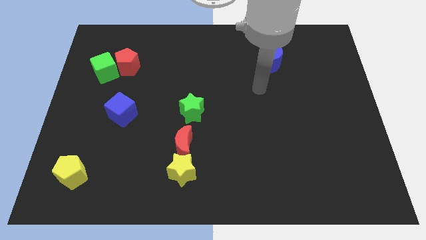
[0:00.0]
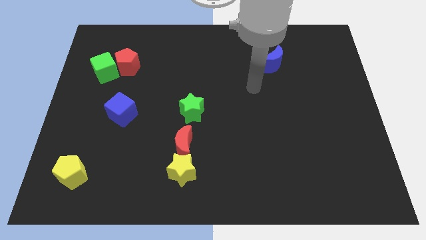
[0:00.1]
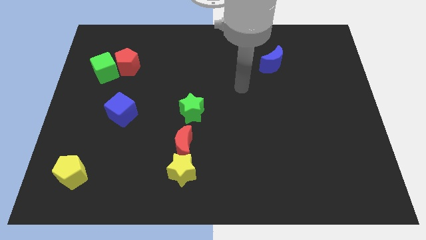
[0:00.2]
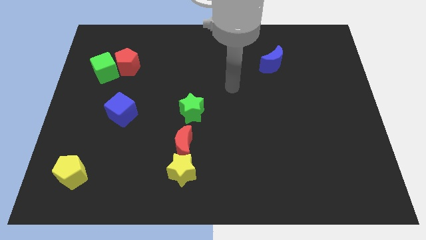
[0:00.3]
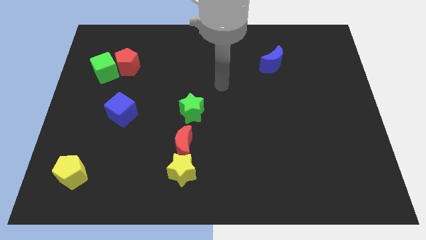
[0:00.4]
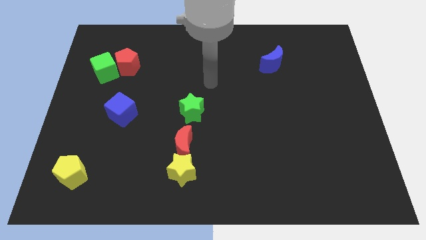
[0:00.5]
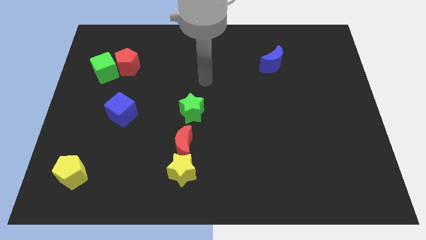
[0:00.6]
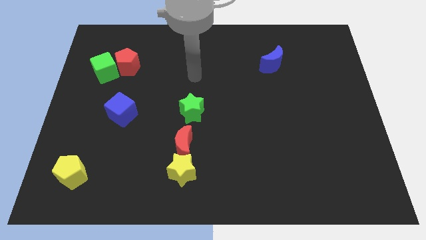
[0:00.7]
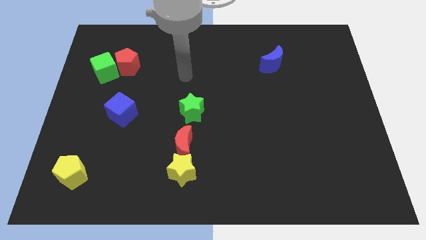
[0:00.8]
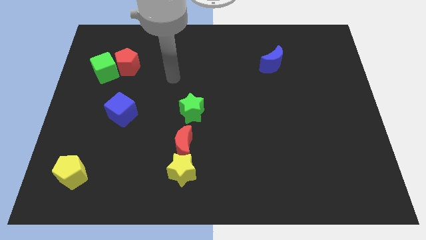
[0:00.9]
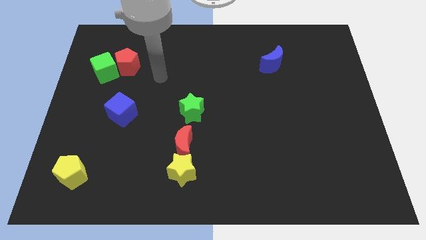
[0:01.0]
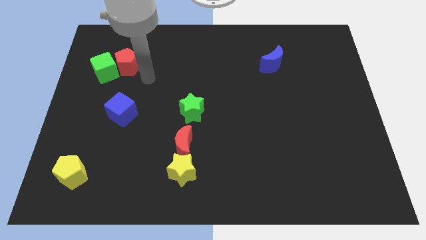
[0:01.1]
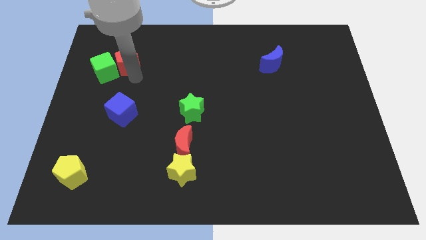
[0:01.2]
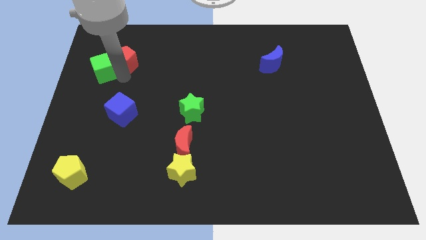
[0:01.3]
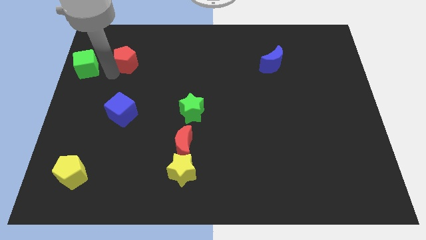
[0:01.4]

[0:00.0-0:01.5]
pull the red pentagon apart from the green cube

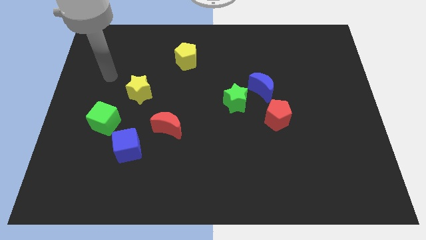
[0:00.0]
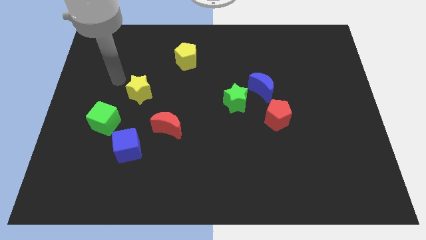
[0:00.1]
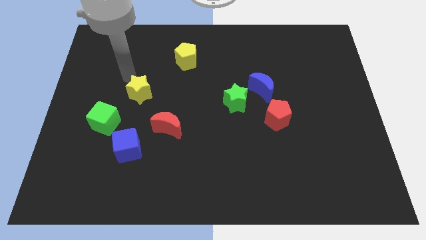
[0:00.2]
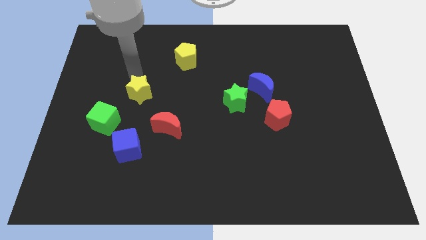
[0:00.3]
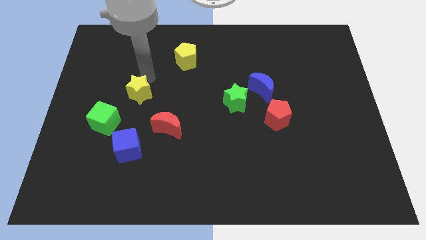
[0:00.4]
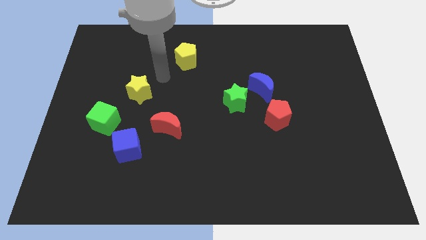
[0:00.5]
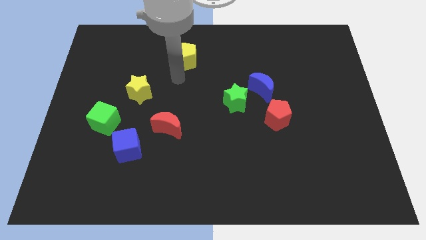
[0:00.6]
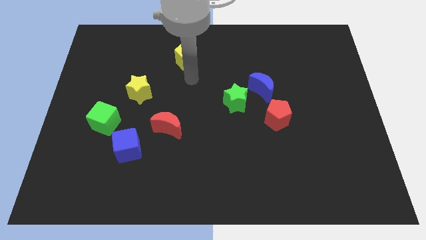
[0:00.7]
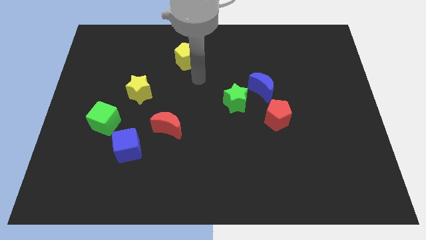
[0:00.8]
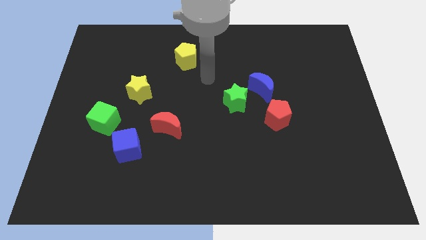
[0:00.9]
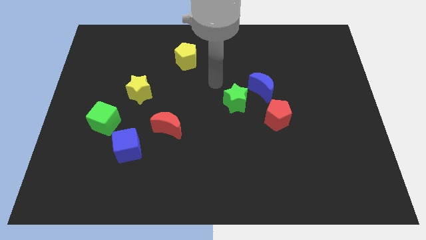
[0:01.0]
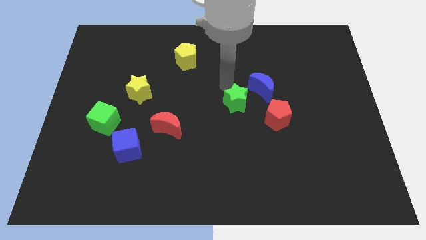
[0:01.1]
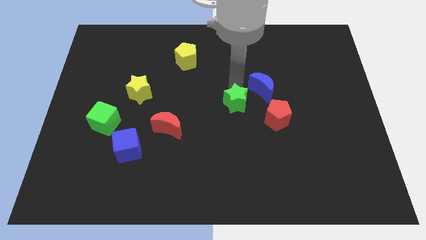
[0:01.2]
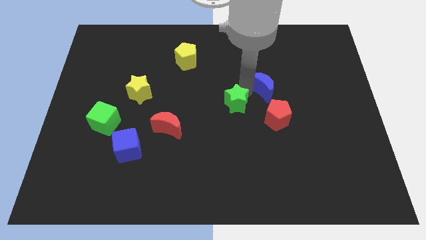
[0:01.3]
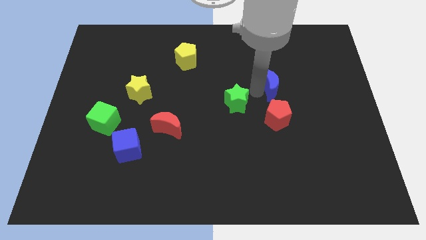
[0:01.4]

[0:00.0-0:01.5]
move the green star away from the blue moon

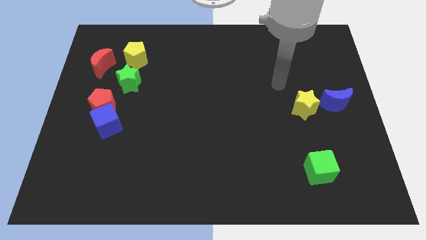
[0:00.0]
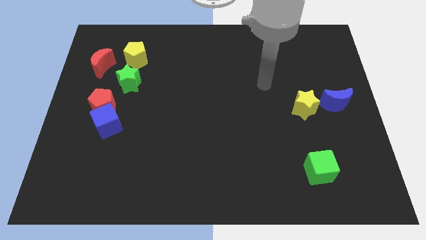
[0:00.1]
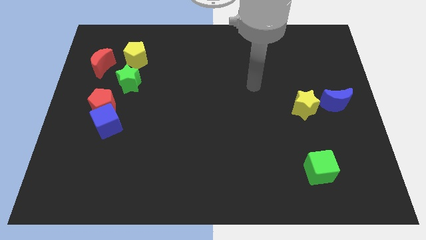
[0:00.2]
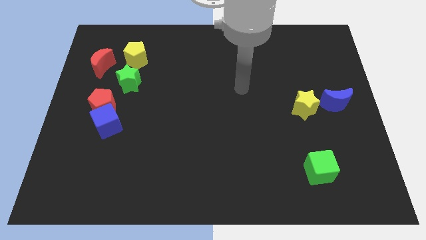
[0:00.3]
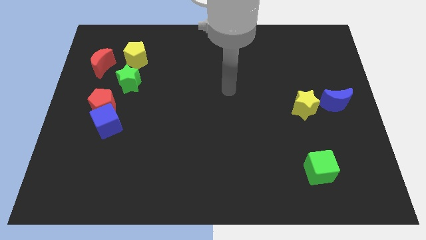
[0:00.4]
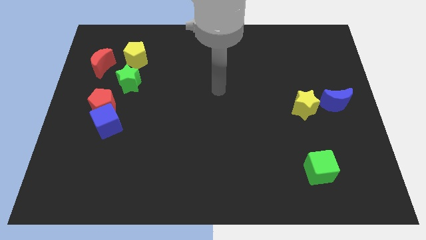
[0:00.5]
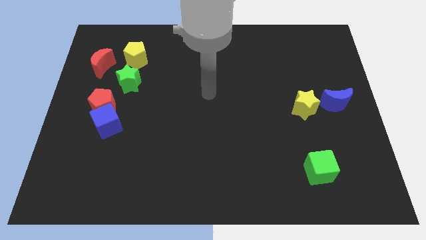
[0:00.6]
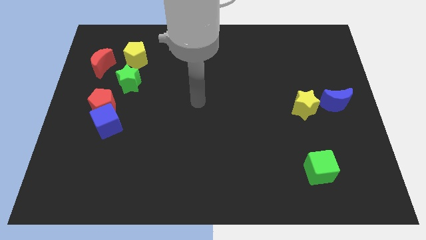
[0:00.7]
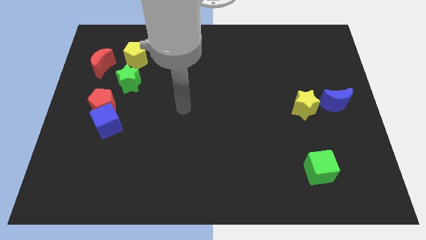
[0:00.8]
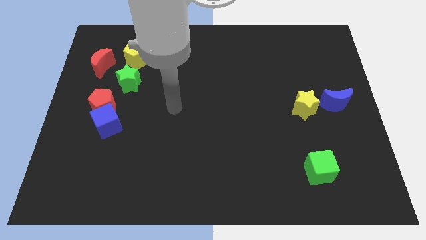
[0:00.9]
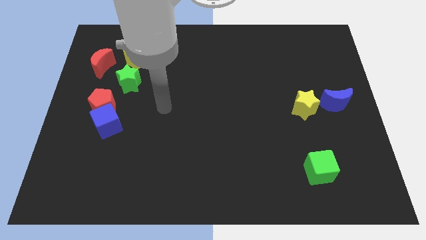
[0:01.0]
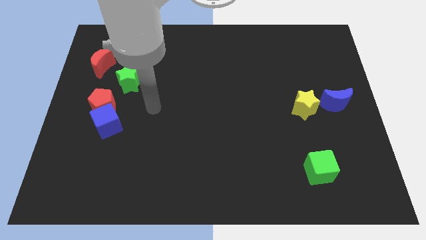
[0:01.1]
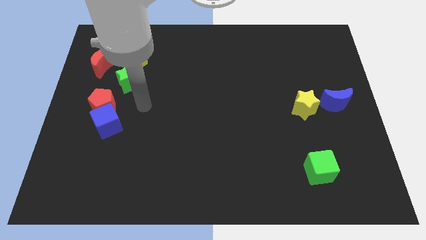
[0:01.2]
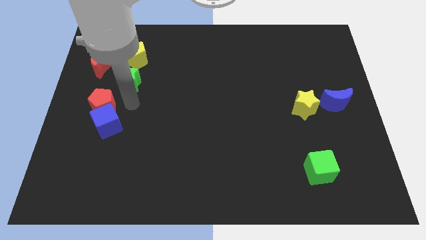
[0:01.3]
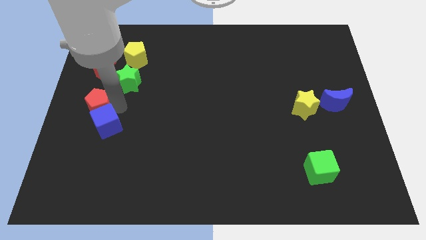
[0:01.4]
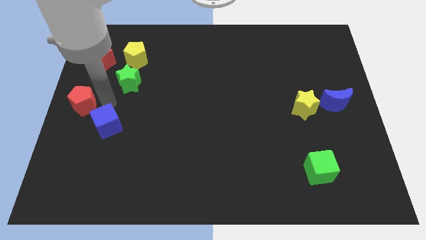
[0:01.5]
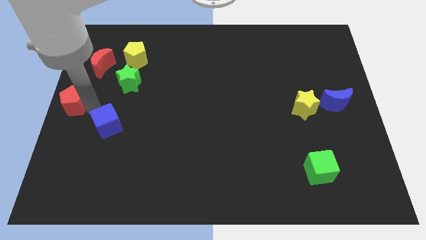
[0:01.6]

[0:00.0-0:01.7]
separate the blue cube from the red pentagon

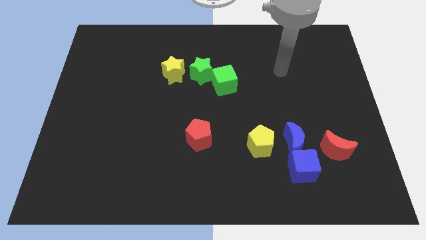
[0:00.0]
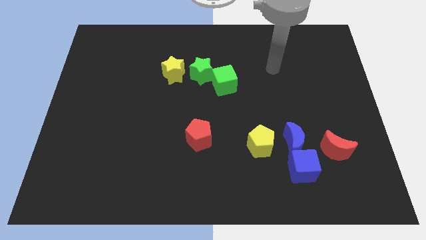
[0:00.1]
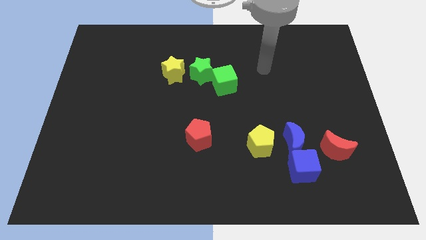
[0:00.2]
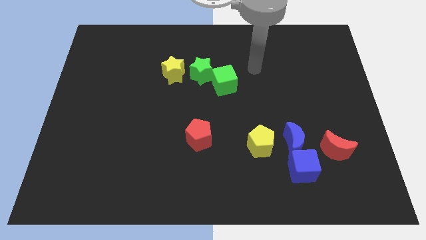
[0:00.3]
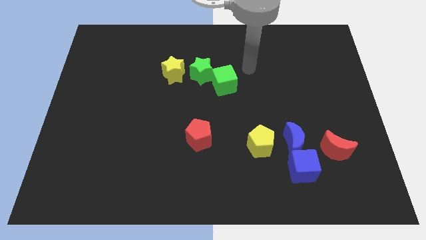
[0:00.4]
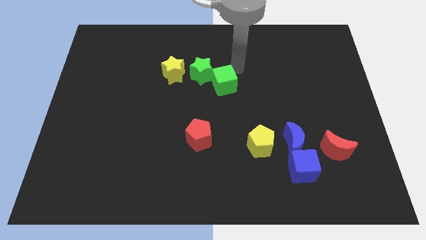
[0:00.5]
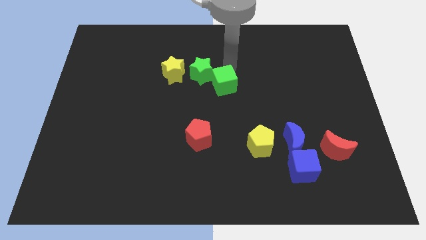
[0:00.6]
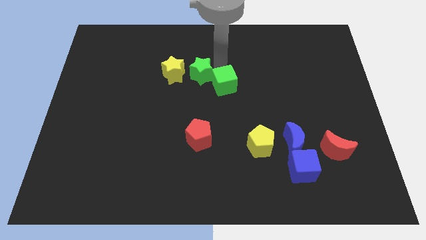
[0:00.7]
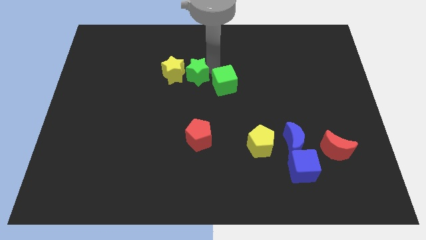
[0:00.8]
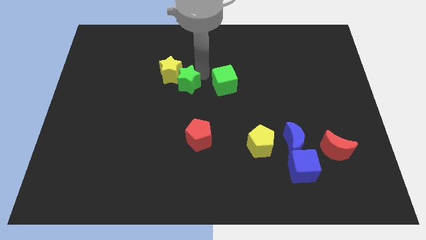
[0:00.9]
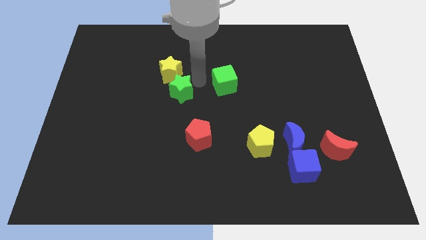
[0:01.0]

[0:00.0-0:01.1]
pull the green cube apart from the green star

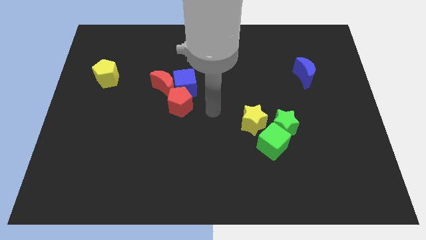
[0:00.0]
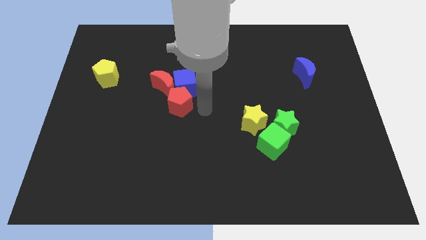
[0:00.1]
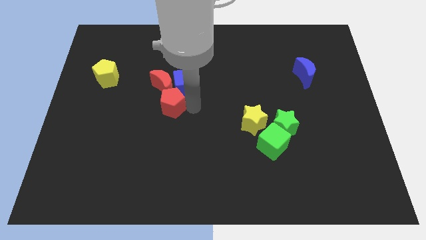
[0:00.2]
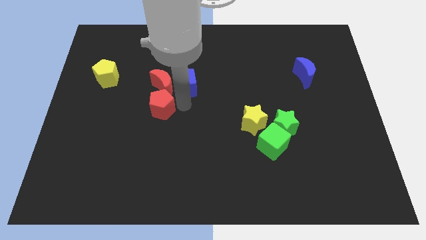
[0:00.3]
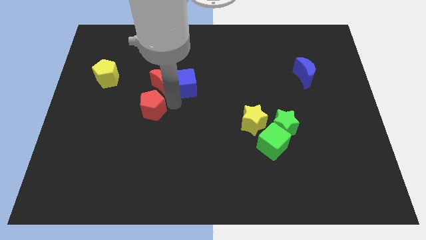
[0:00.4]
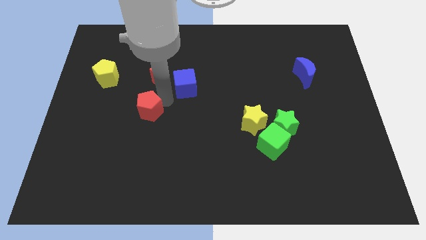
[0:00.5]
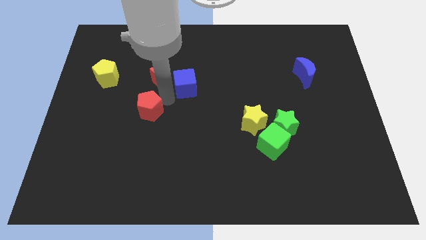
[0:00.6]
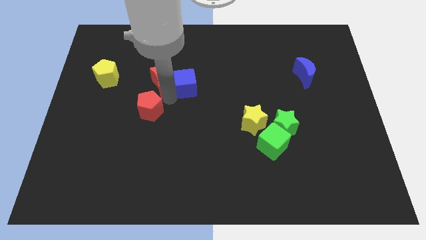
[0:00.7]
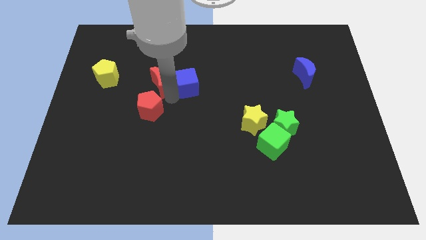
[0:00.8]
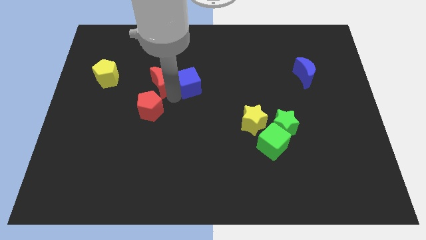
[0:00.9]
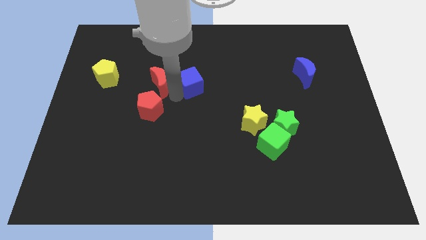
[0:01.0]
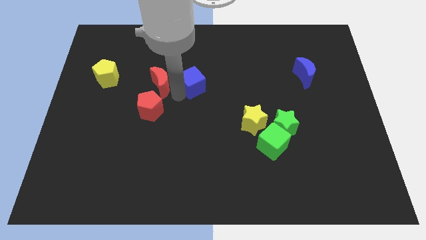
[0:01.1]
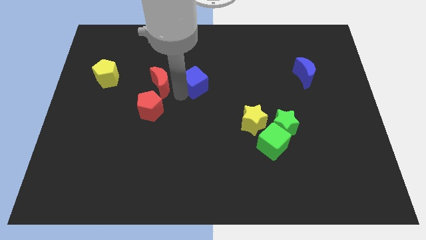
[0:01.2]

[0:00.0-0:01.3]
move the blue cube away from the red moon and red pentagon

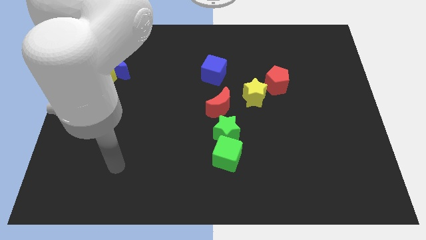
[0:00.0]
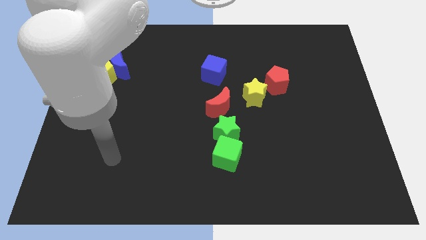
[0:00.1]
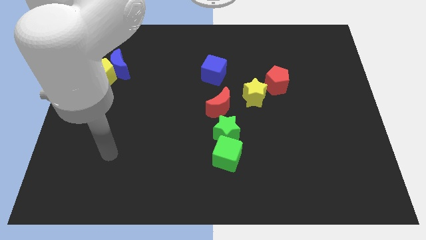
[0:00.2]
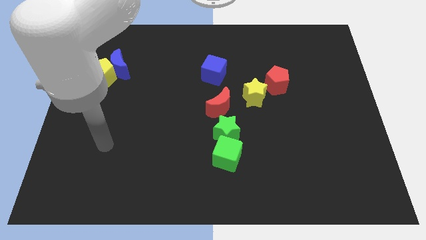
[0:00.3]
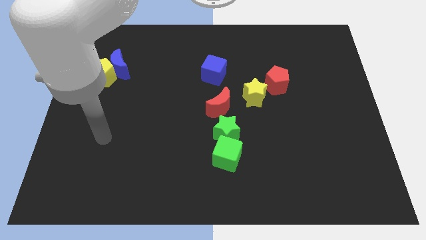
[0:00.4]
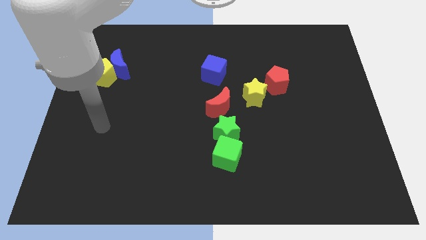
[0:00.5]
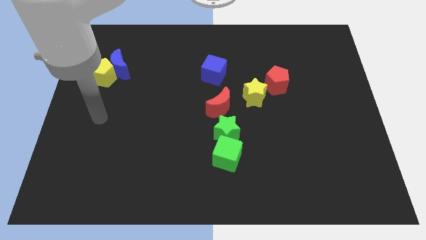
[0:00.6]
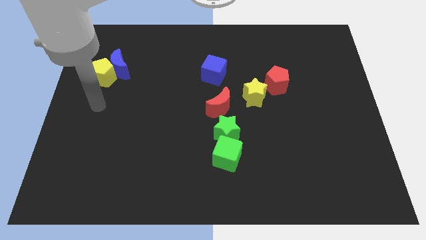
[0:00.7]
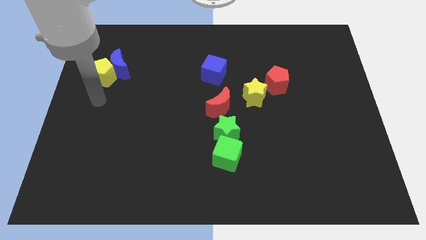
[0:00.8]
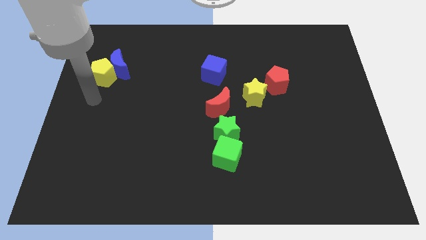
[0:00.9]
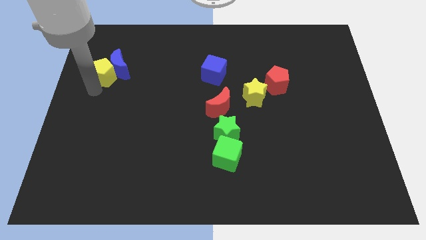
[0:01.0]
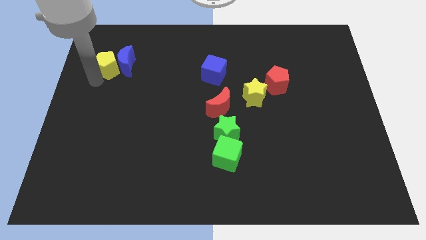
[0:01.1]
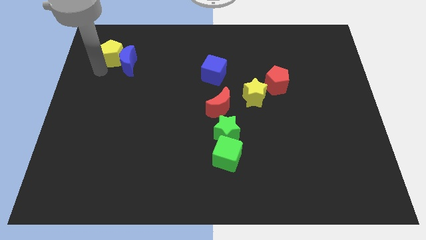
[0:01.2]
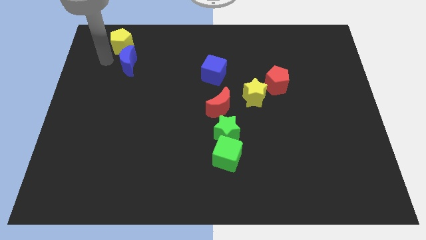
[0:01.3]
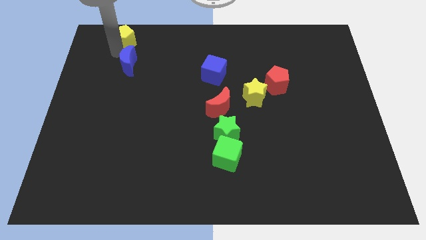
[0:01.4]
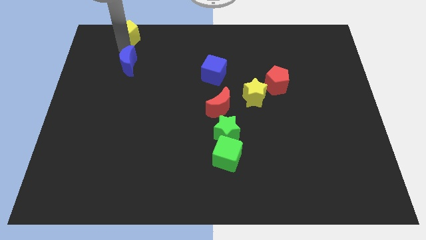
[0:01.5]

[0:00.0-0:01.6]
pull the blue moon apart from the yellow pentagon

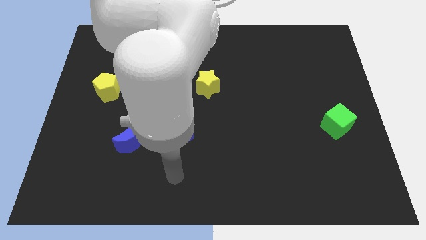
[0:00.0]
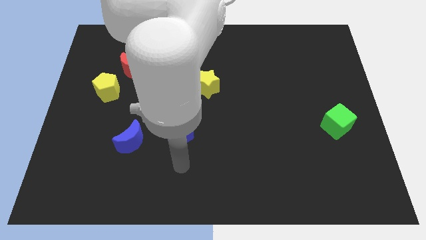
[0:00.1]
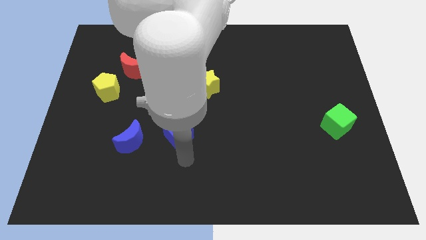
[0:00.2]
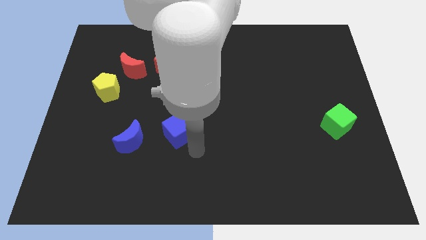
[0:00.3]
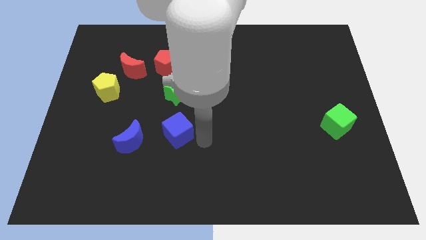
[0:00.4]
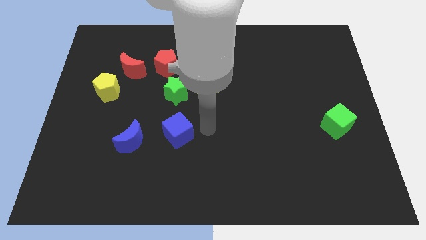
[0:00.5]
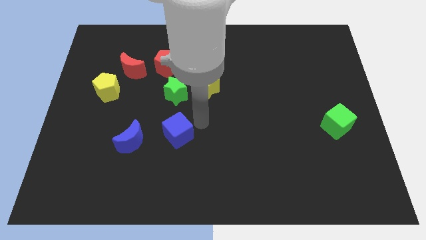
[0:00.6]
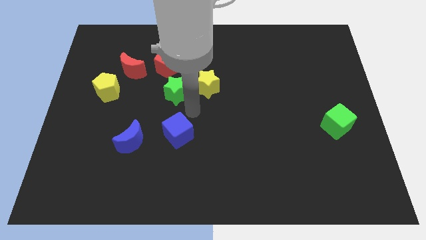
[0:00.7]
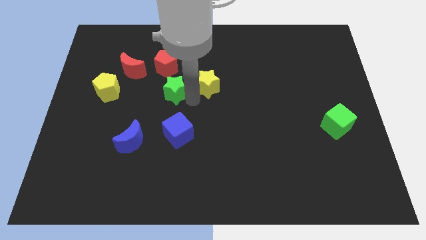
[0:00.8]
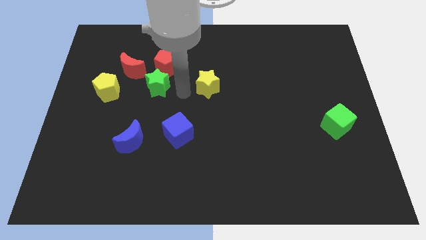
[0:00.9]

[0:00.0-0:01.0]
move the yellow star away from the green star
